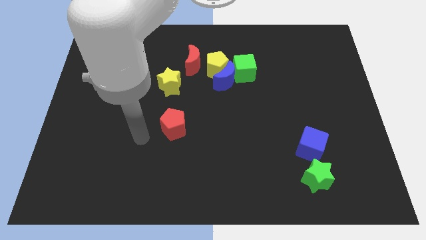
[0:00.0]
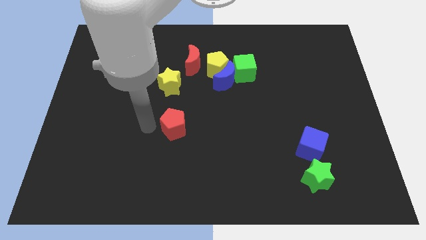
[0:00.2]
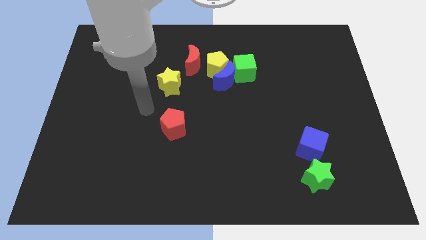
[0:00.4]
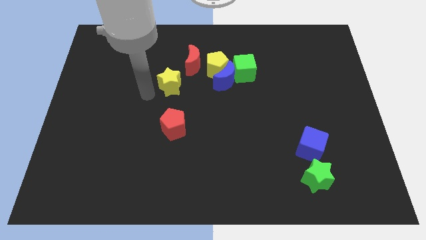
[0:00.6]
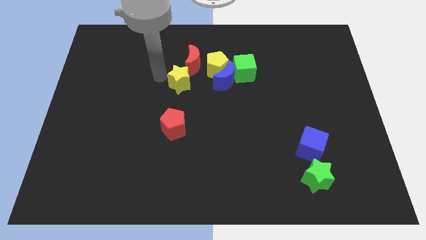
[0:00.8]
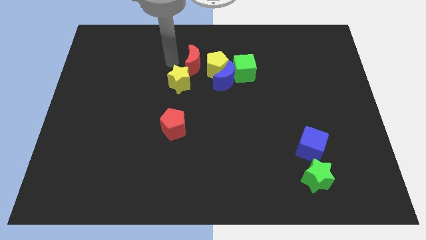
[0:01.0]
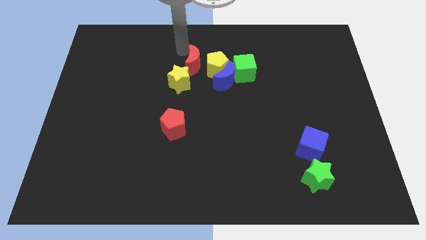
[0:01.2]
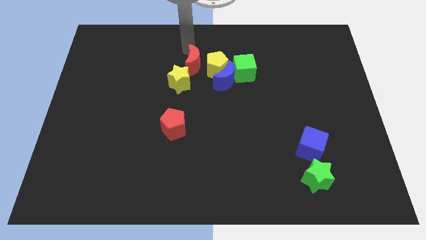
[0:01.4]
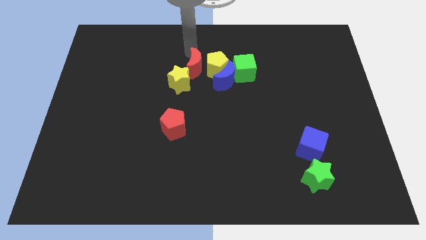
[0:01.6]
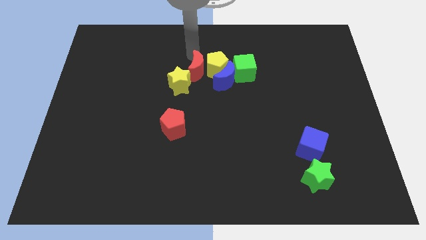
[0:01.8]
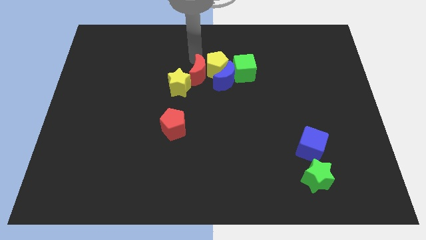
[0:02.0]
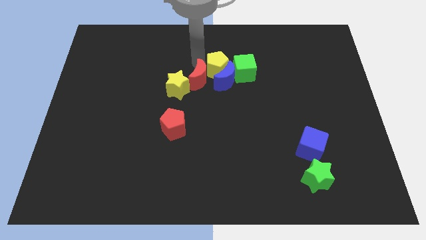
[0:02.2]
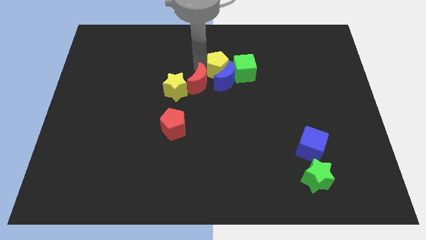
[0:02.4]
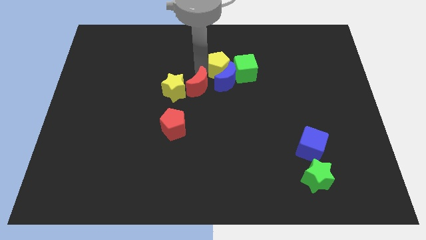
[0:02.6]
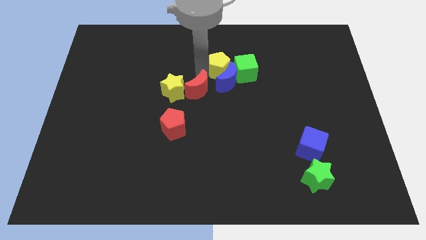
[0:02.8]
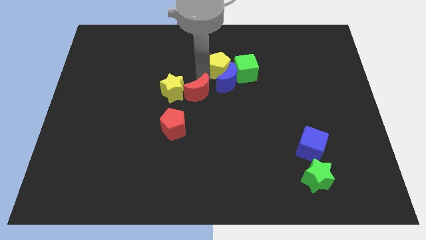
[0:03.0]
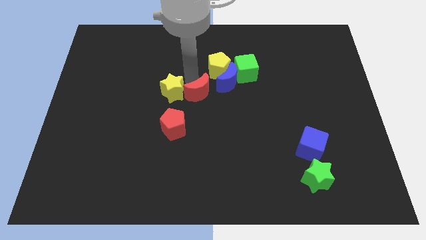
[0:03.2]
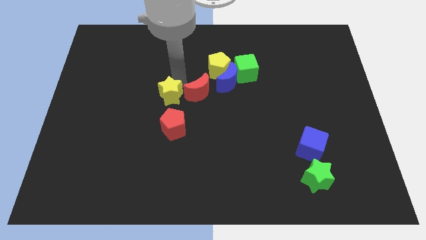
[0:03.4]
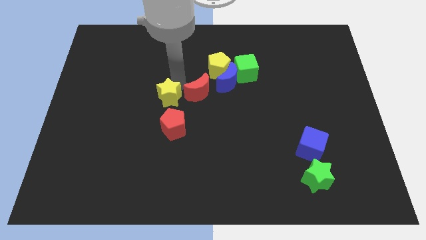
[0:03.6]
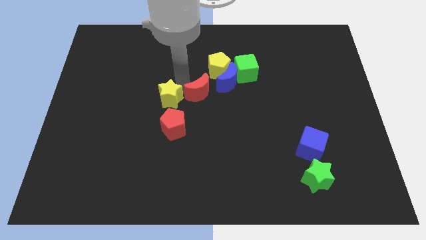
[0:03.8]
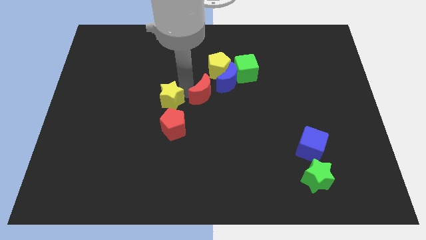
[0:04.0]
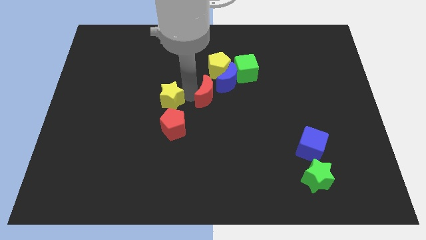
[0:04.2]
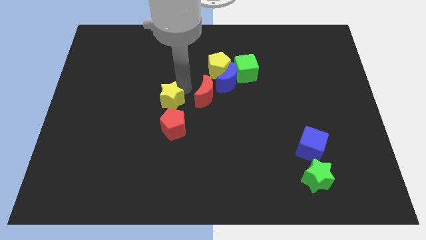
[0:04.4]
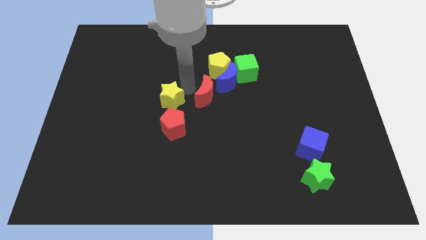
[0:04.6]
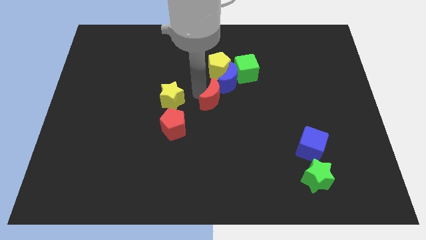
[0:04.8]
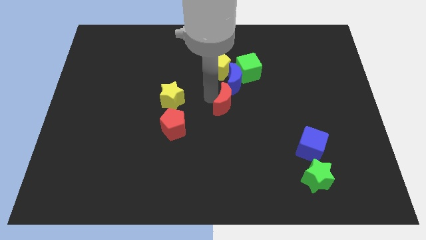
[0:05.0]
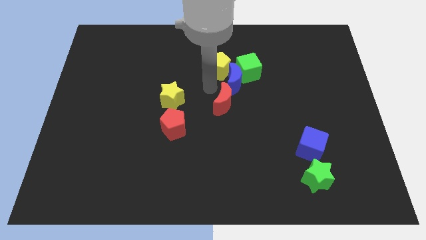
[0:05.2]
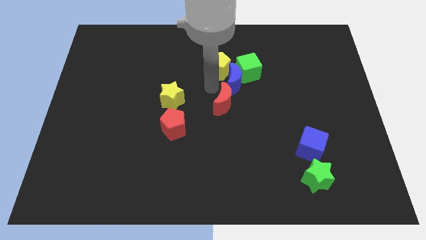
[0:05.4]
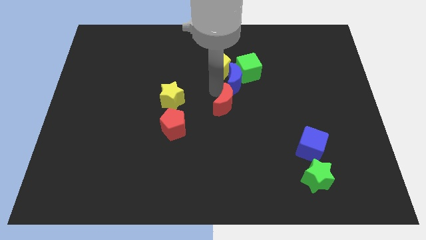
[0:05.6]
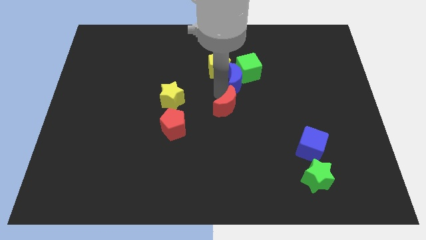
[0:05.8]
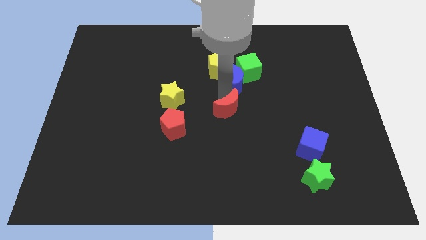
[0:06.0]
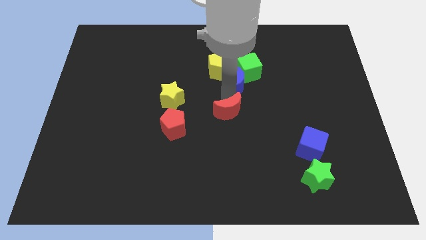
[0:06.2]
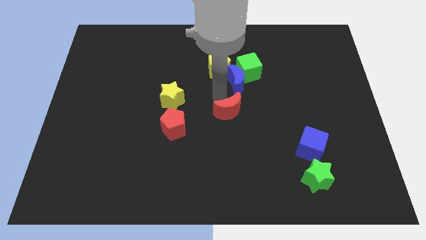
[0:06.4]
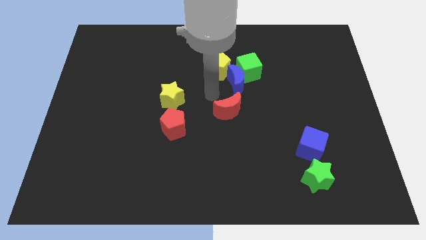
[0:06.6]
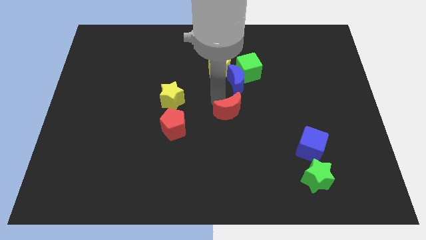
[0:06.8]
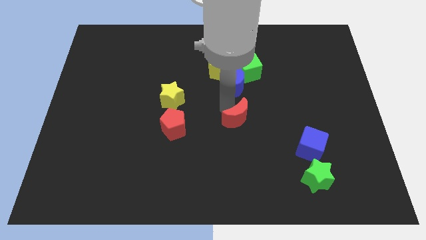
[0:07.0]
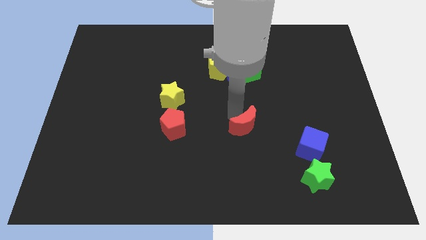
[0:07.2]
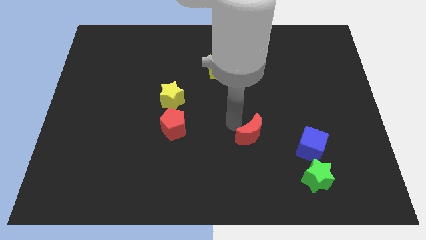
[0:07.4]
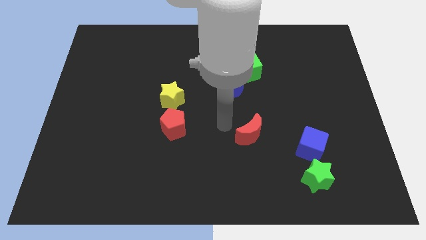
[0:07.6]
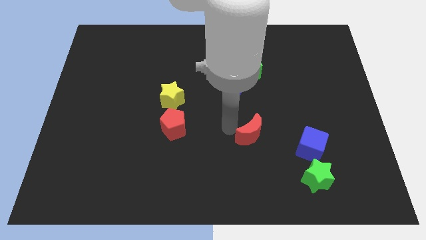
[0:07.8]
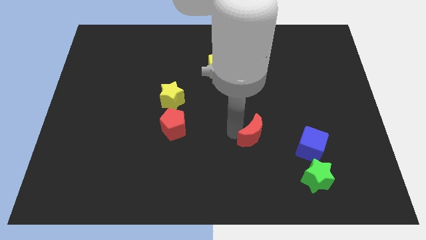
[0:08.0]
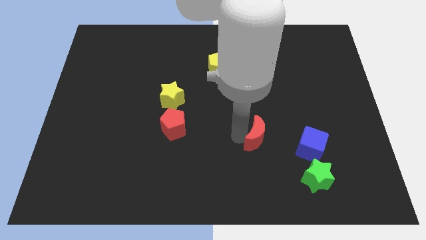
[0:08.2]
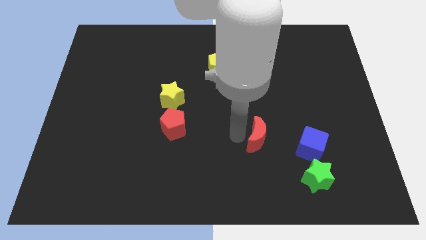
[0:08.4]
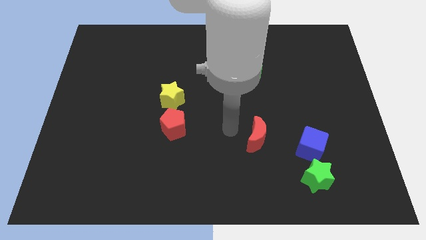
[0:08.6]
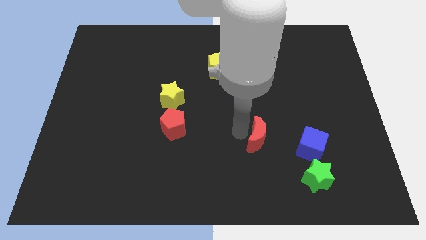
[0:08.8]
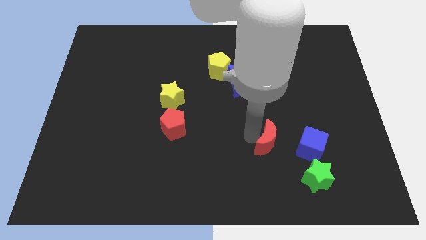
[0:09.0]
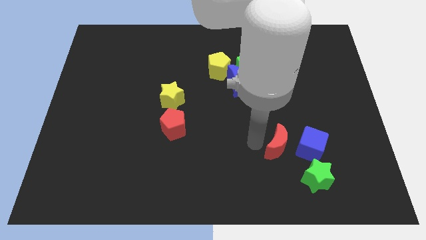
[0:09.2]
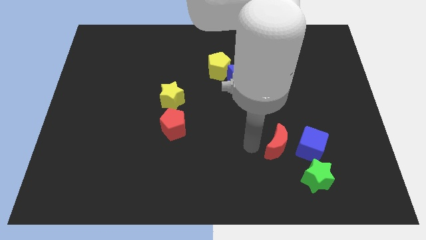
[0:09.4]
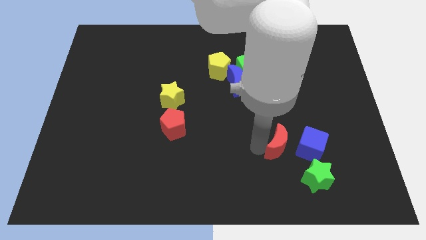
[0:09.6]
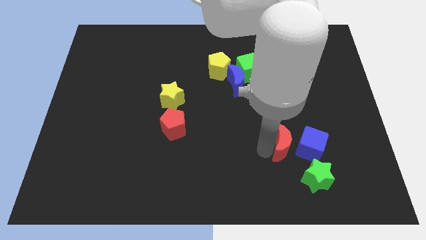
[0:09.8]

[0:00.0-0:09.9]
slide the red moon towards the blue cube
